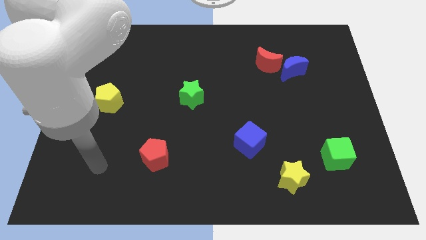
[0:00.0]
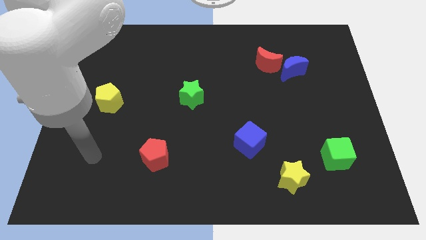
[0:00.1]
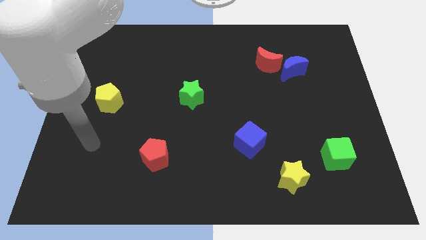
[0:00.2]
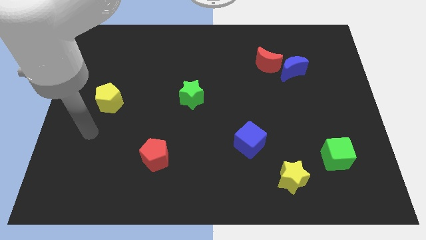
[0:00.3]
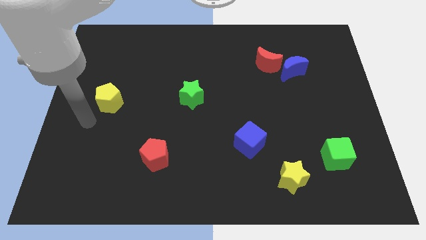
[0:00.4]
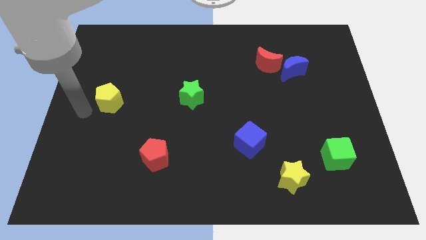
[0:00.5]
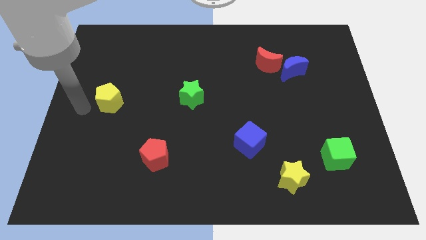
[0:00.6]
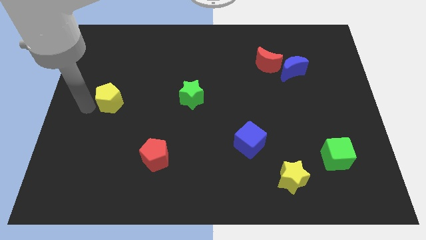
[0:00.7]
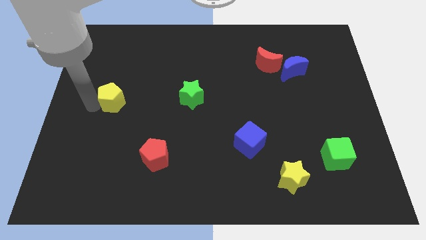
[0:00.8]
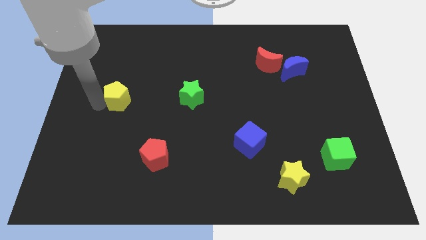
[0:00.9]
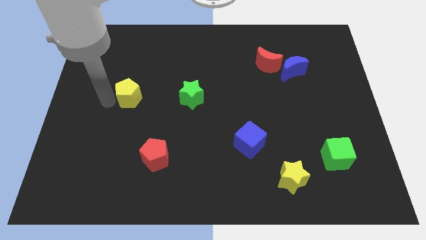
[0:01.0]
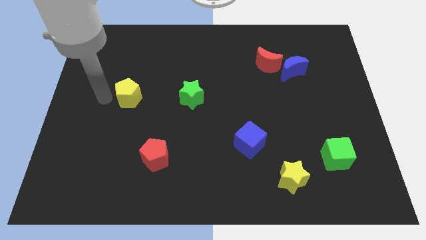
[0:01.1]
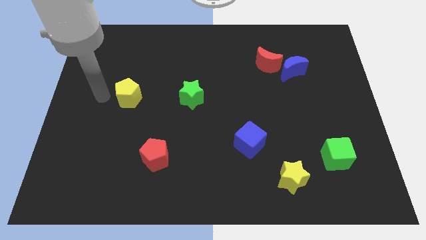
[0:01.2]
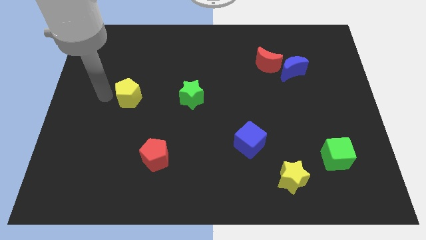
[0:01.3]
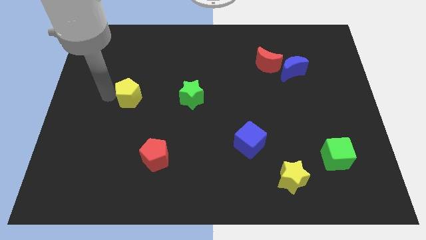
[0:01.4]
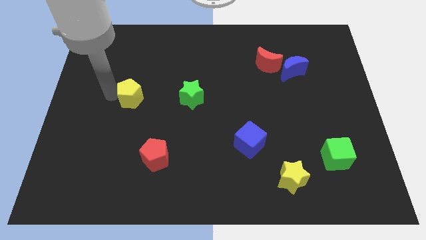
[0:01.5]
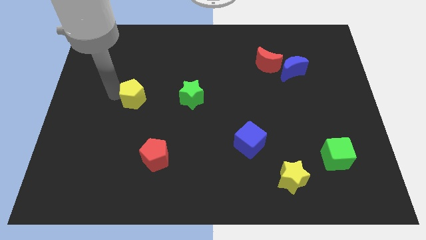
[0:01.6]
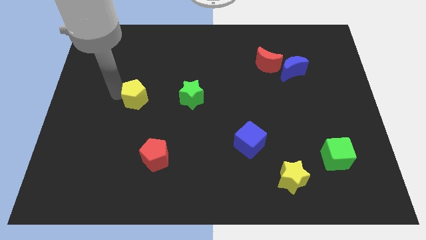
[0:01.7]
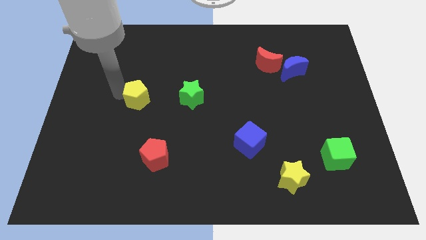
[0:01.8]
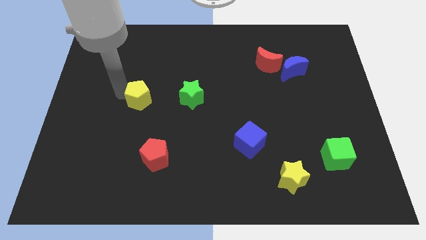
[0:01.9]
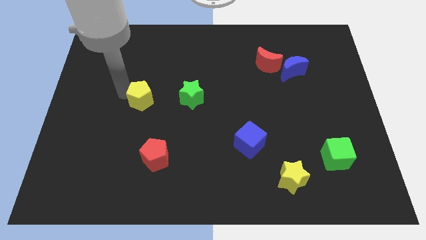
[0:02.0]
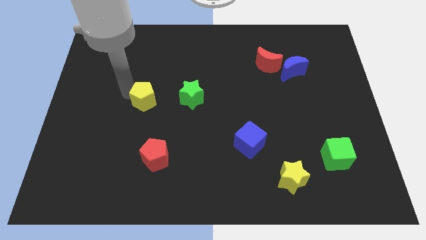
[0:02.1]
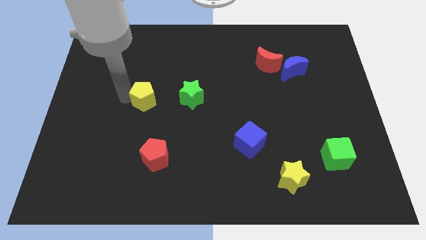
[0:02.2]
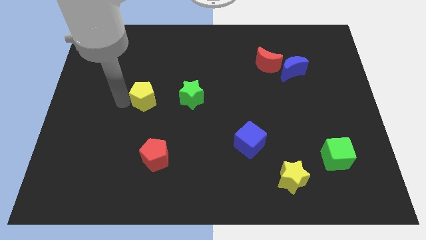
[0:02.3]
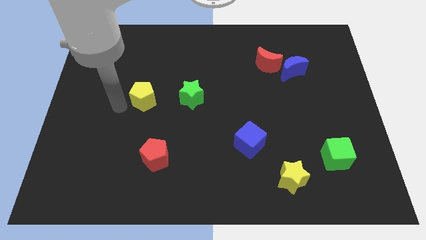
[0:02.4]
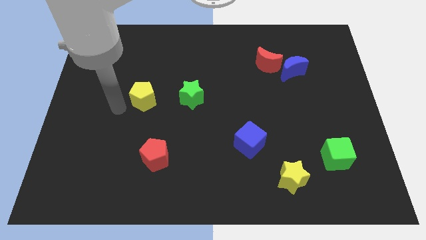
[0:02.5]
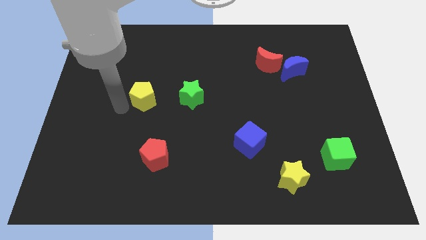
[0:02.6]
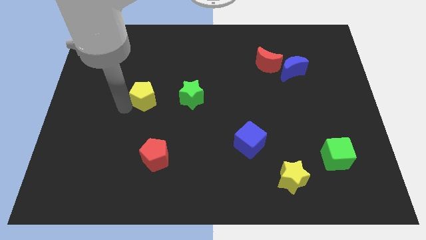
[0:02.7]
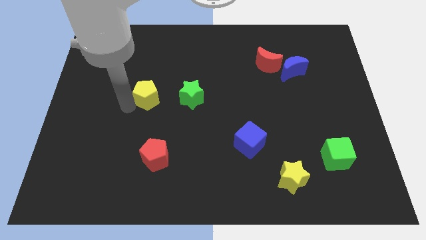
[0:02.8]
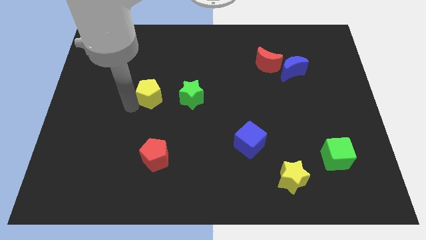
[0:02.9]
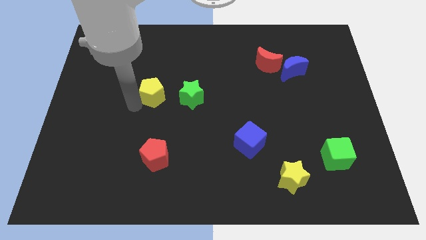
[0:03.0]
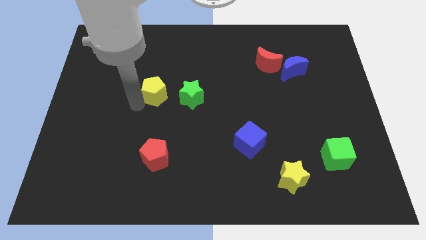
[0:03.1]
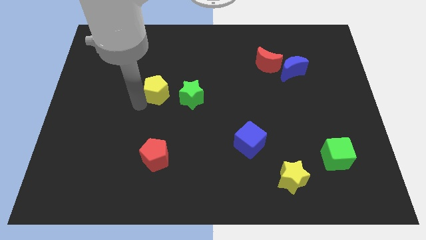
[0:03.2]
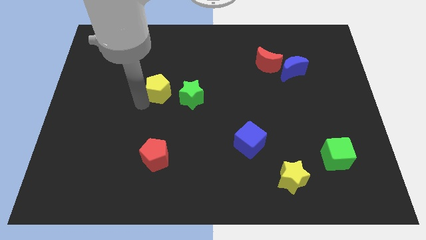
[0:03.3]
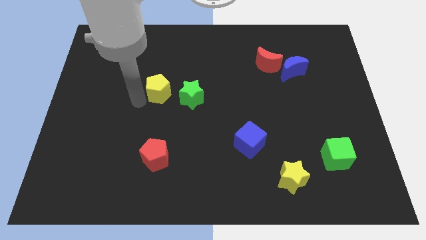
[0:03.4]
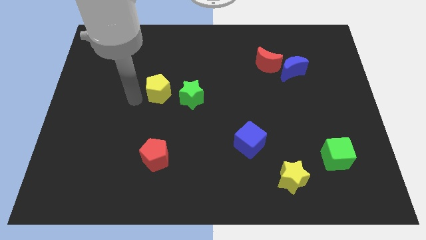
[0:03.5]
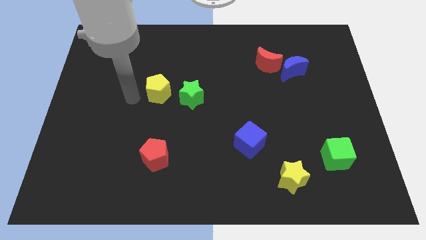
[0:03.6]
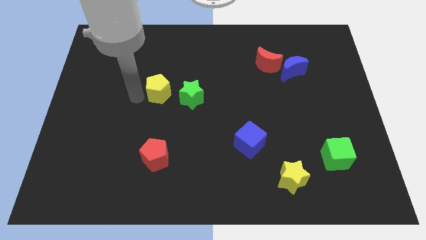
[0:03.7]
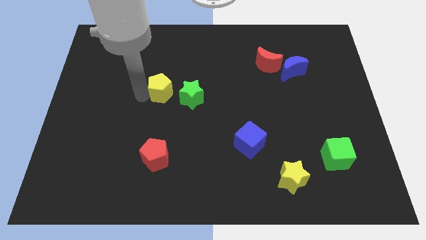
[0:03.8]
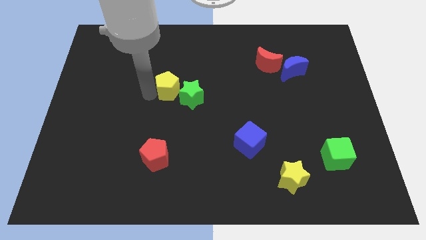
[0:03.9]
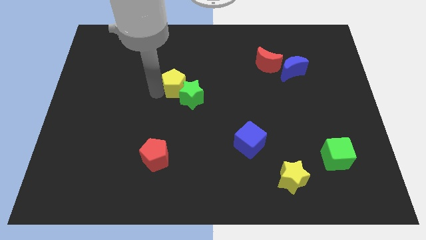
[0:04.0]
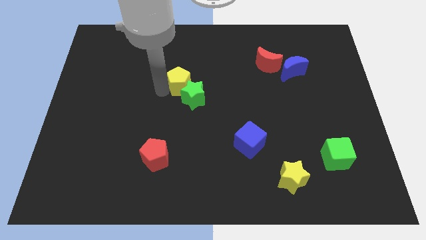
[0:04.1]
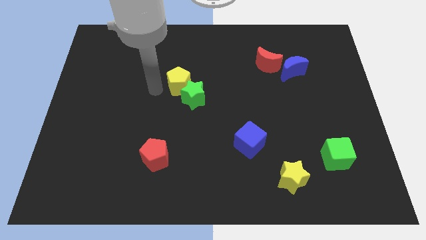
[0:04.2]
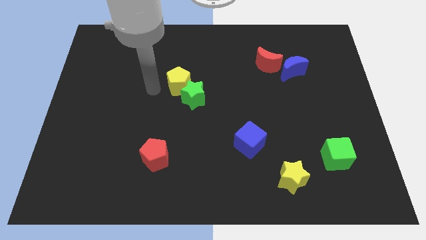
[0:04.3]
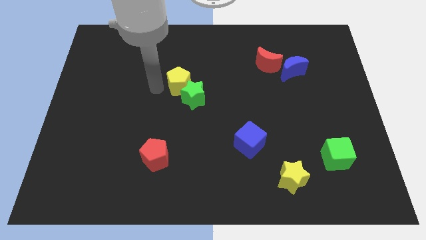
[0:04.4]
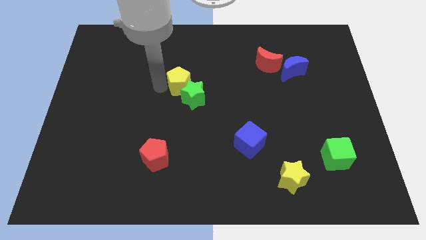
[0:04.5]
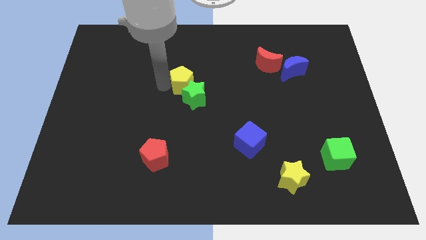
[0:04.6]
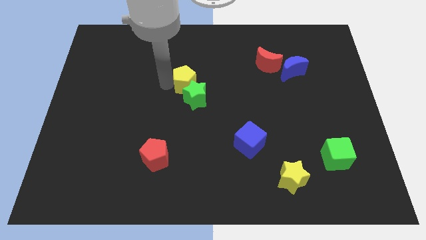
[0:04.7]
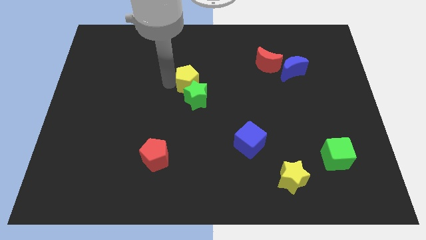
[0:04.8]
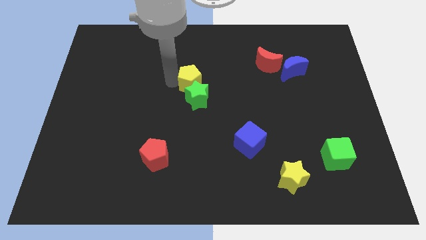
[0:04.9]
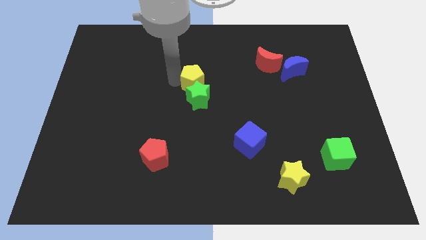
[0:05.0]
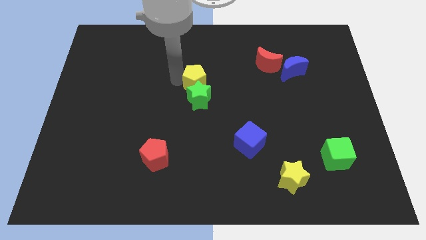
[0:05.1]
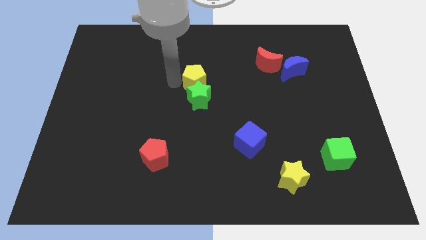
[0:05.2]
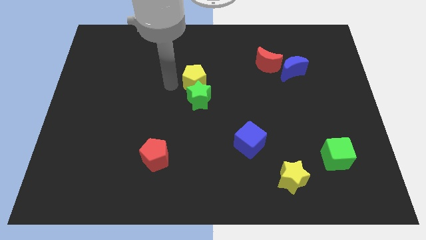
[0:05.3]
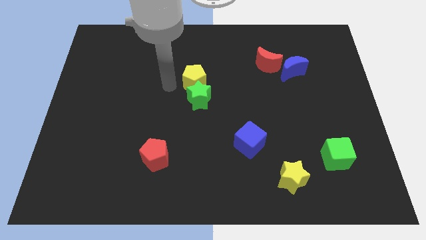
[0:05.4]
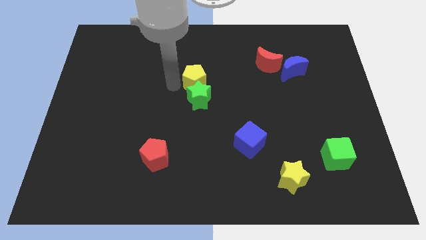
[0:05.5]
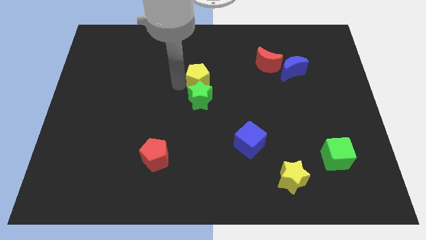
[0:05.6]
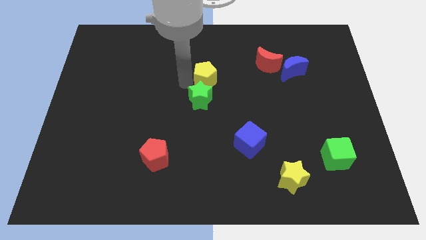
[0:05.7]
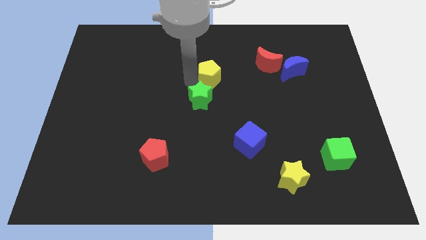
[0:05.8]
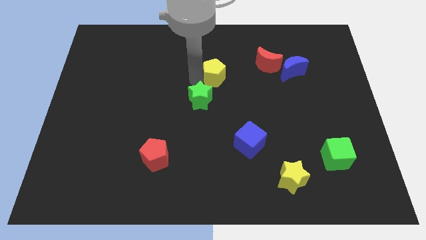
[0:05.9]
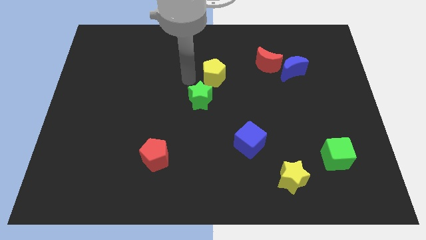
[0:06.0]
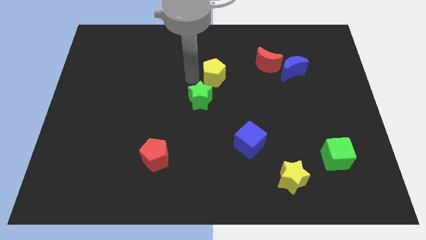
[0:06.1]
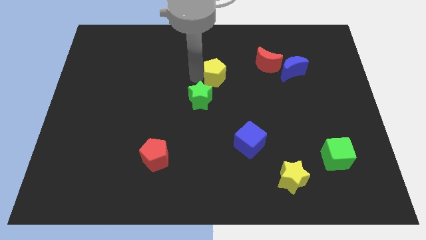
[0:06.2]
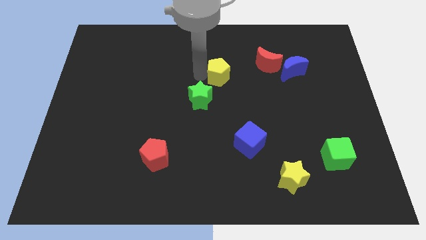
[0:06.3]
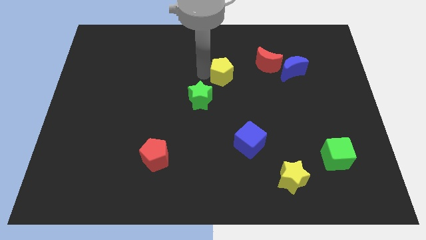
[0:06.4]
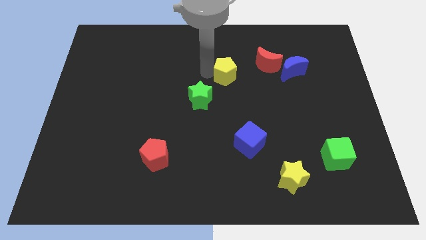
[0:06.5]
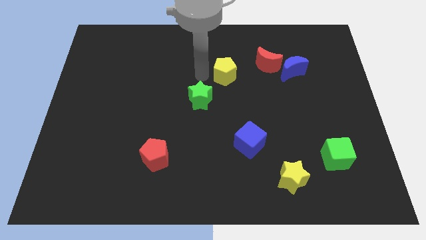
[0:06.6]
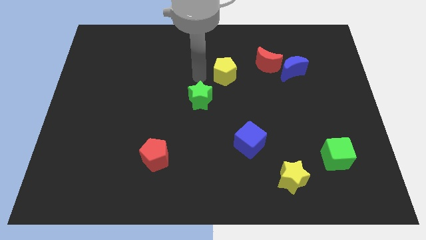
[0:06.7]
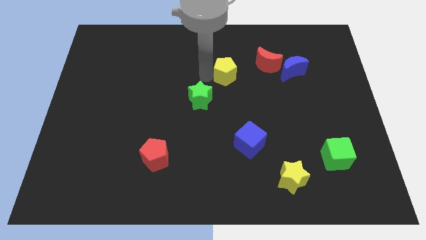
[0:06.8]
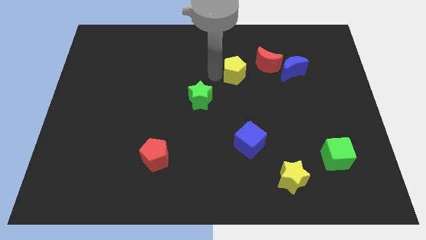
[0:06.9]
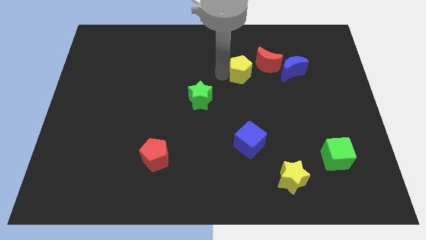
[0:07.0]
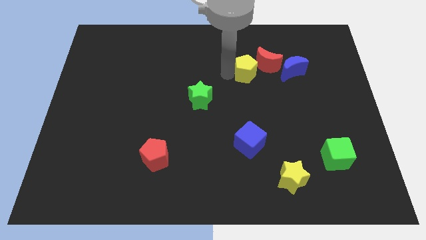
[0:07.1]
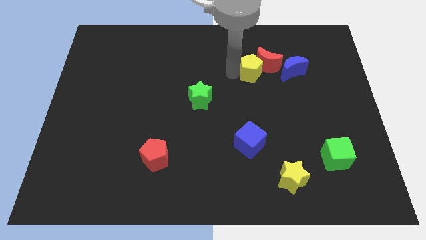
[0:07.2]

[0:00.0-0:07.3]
put the yellow pentagon towards the red moon

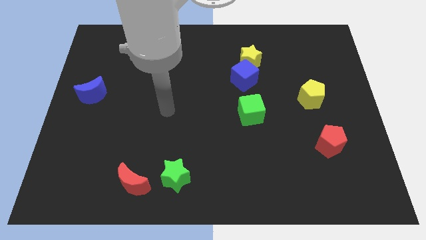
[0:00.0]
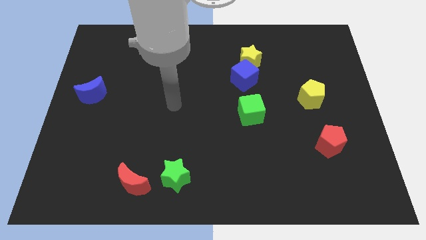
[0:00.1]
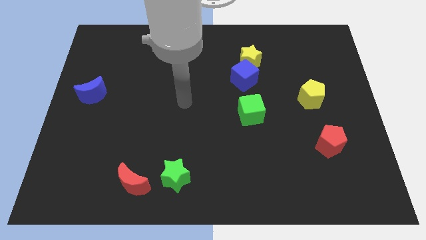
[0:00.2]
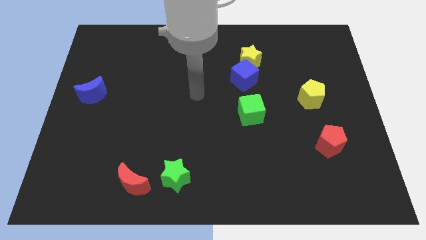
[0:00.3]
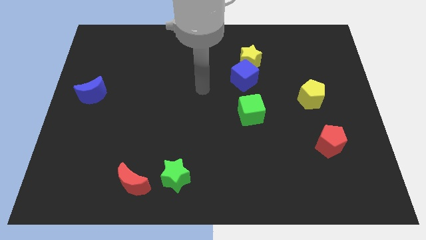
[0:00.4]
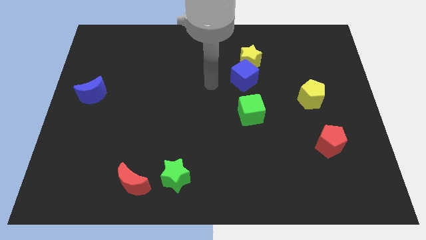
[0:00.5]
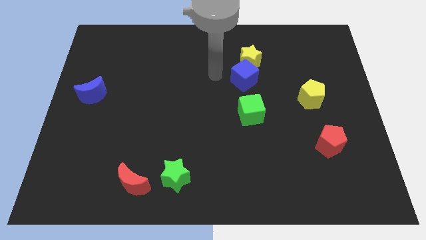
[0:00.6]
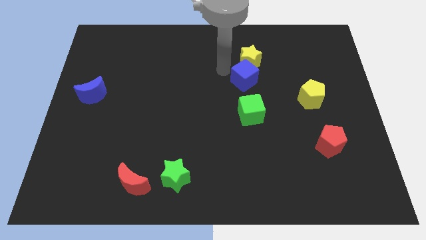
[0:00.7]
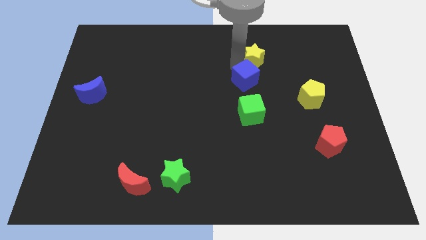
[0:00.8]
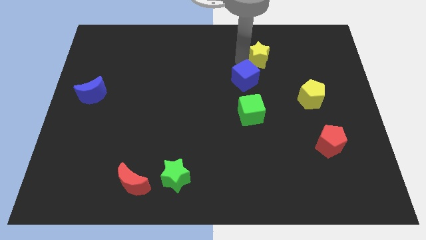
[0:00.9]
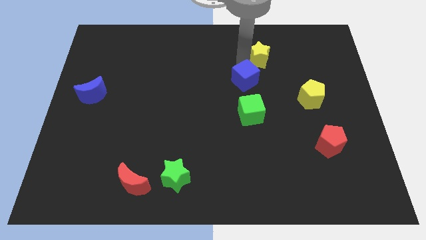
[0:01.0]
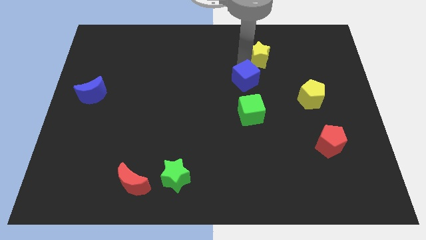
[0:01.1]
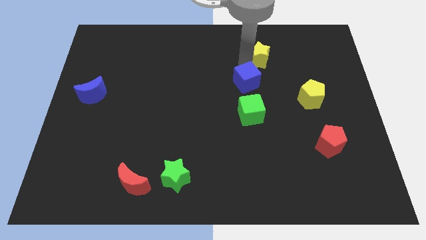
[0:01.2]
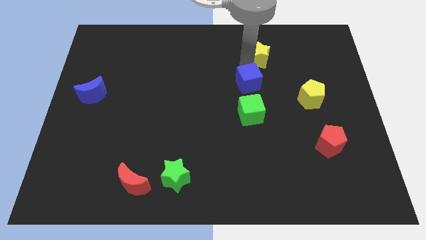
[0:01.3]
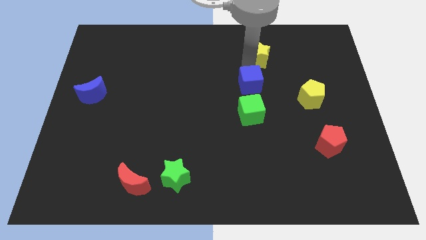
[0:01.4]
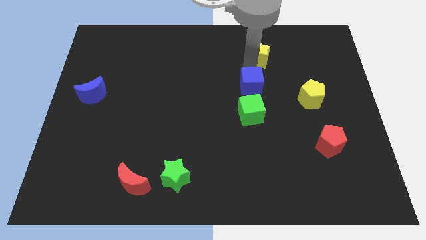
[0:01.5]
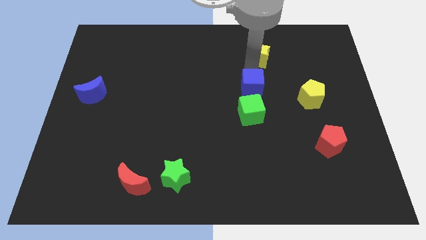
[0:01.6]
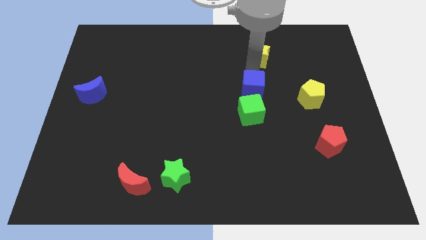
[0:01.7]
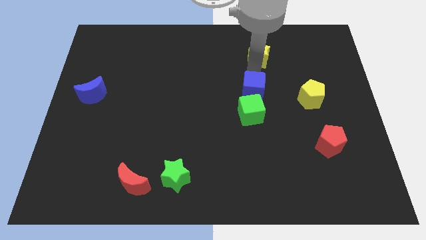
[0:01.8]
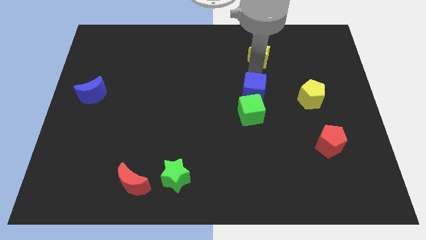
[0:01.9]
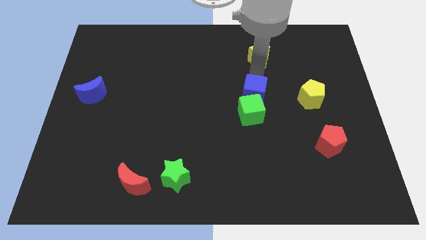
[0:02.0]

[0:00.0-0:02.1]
move the blue cube close to the green cube
